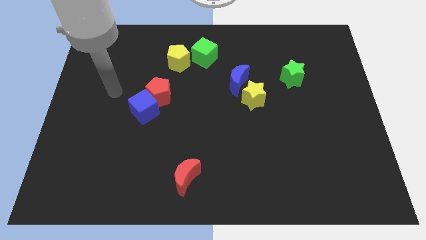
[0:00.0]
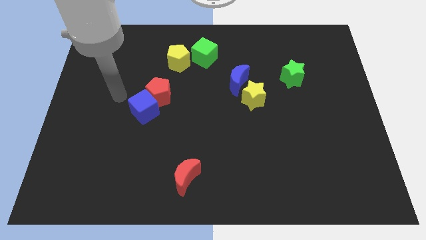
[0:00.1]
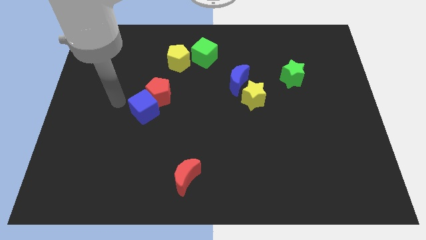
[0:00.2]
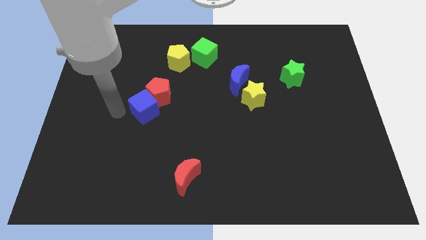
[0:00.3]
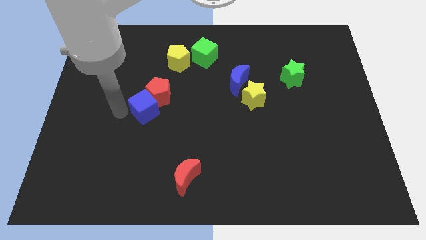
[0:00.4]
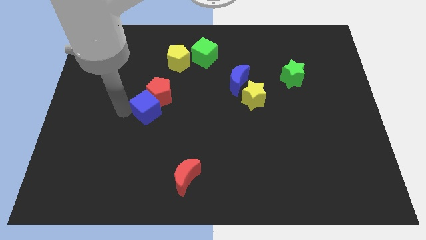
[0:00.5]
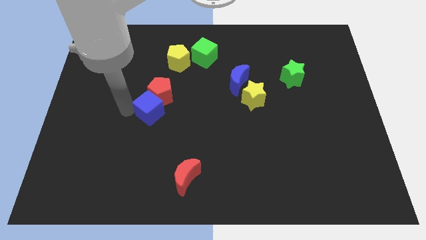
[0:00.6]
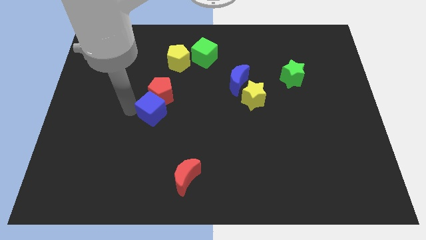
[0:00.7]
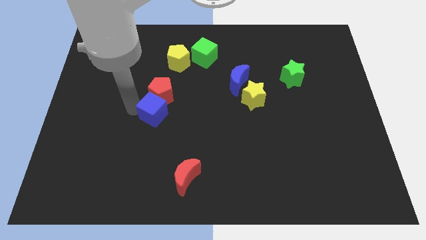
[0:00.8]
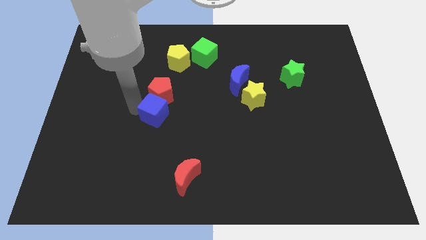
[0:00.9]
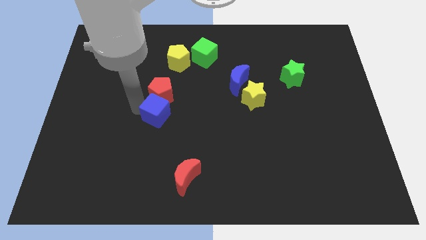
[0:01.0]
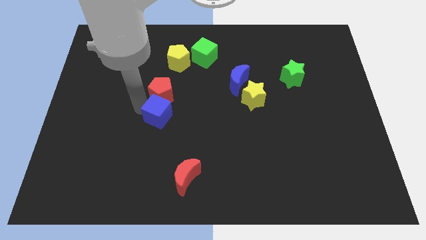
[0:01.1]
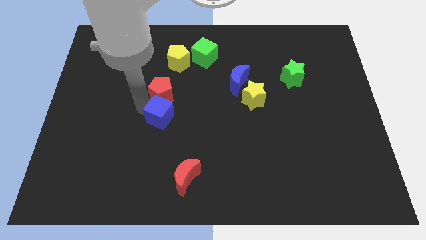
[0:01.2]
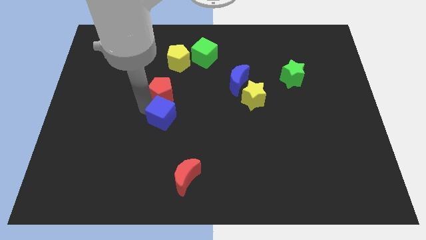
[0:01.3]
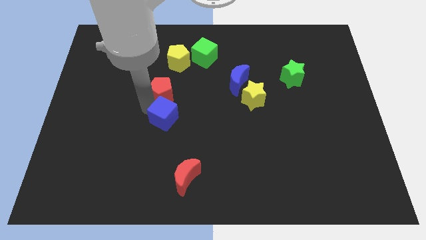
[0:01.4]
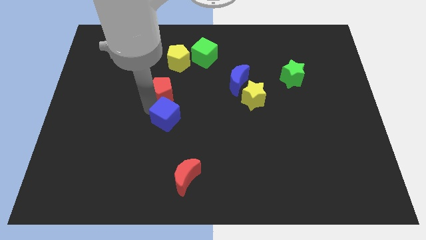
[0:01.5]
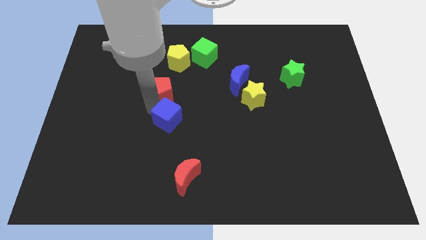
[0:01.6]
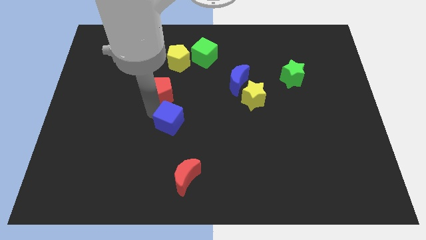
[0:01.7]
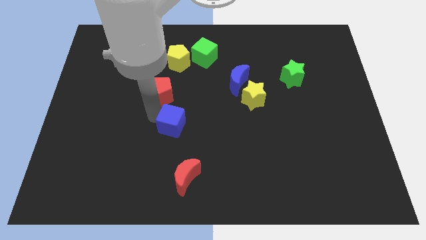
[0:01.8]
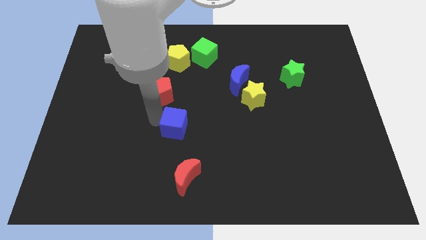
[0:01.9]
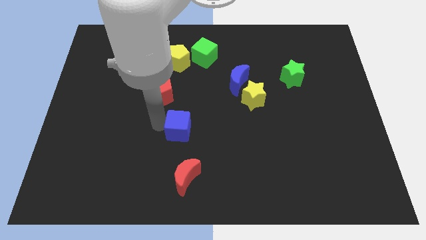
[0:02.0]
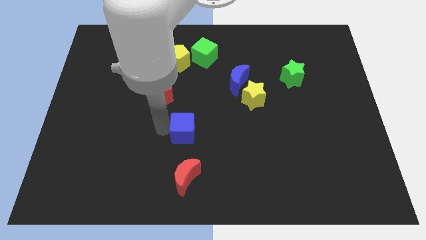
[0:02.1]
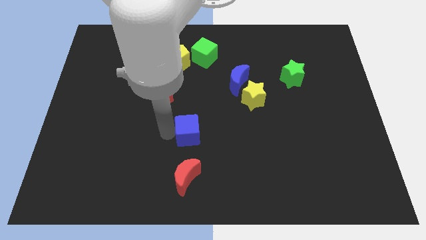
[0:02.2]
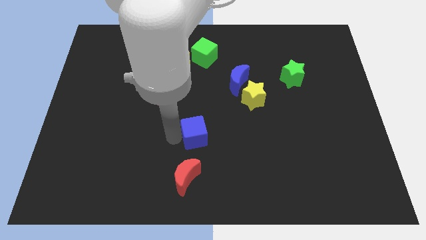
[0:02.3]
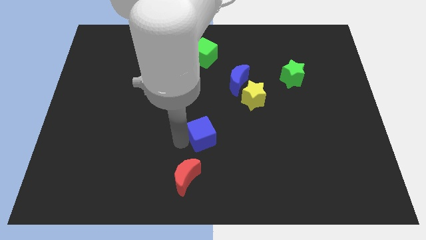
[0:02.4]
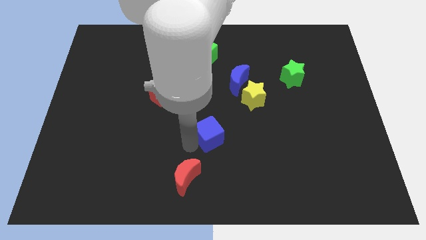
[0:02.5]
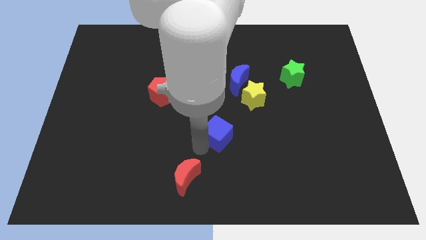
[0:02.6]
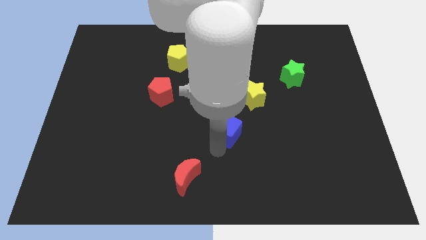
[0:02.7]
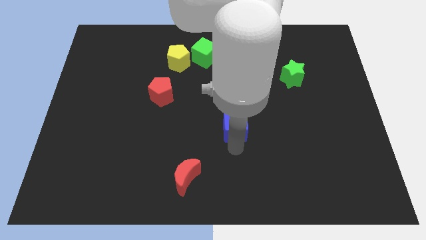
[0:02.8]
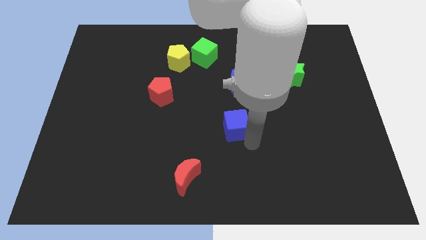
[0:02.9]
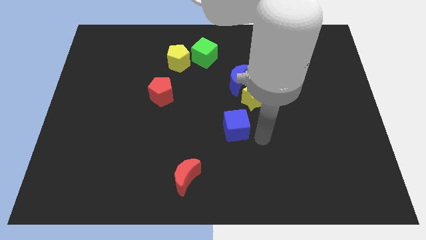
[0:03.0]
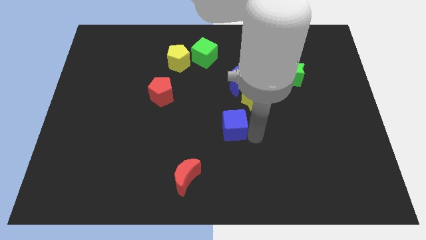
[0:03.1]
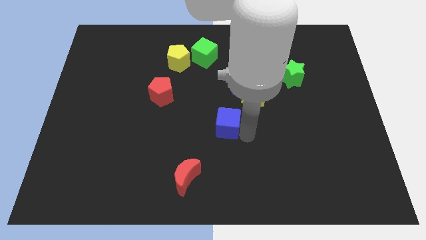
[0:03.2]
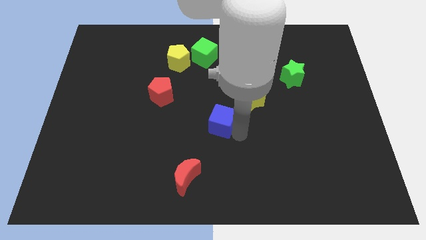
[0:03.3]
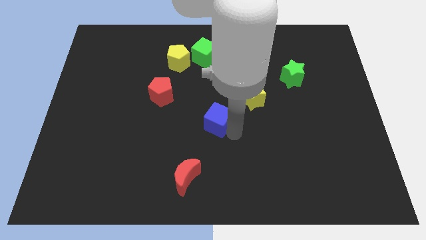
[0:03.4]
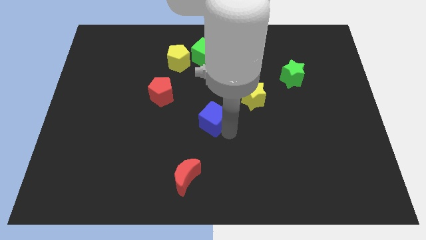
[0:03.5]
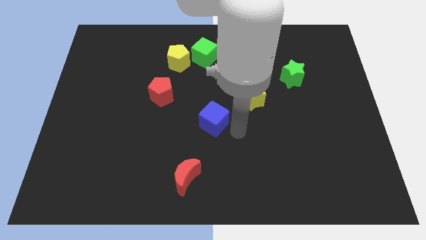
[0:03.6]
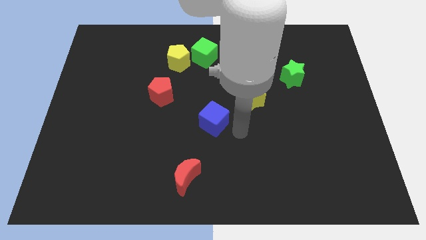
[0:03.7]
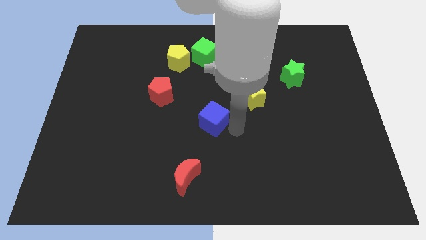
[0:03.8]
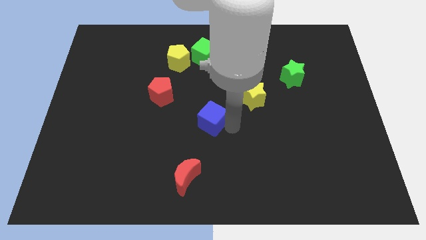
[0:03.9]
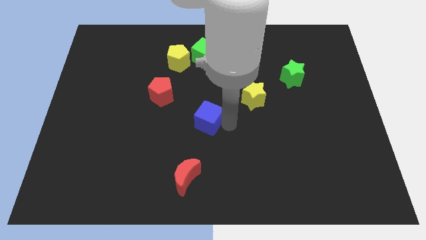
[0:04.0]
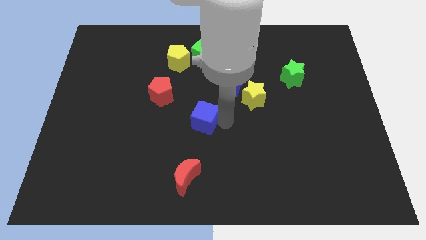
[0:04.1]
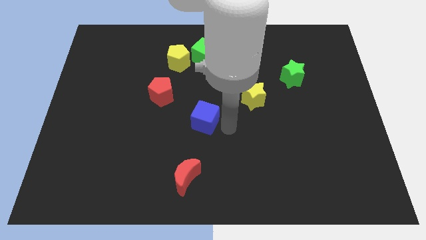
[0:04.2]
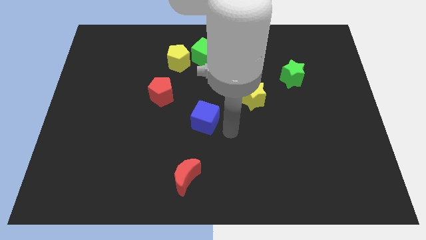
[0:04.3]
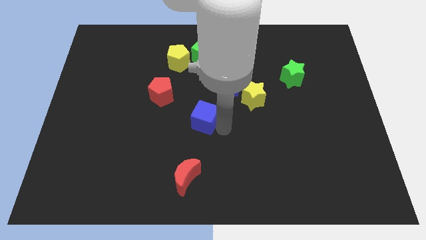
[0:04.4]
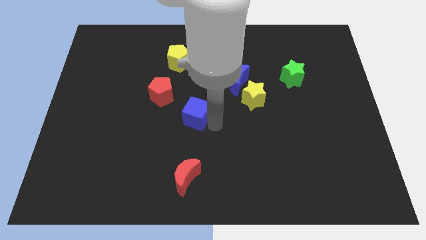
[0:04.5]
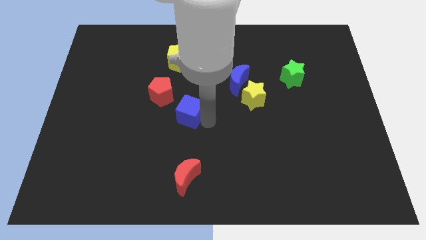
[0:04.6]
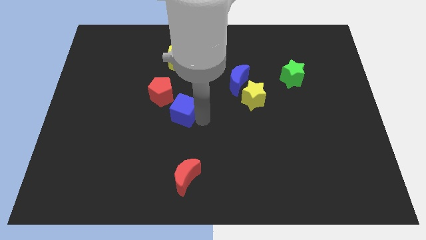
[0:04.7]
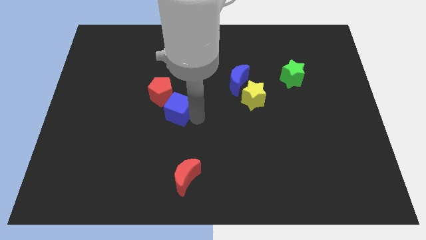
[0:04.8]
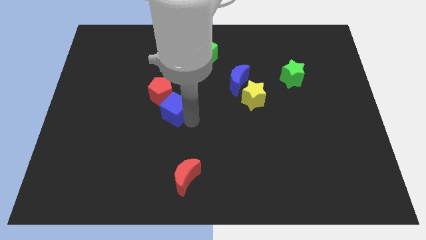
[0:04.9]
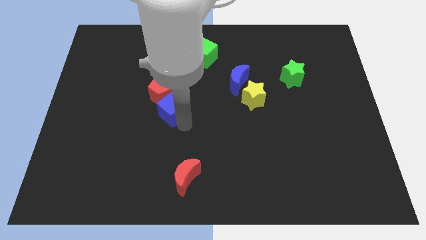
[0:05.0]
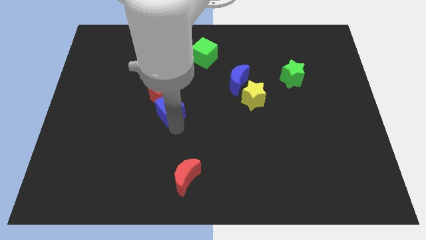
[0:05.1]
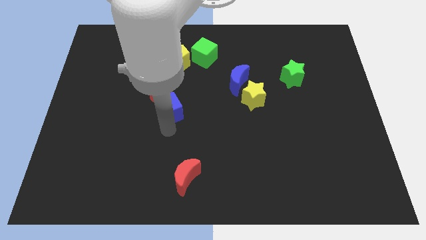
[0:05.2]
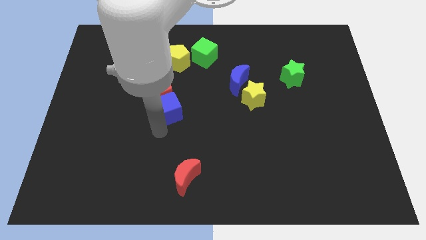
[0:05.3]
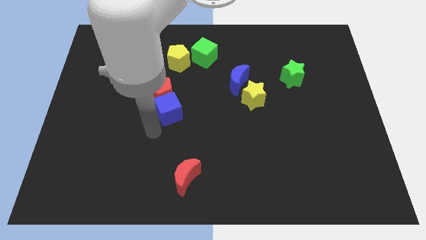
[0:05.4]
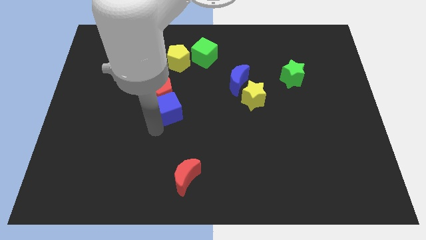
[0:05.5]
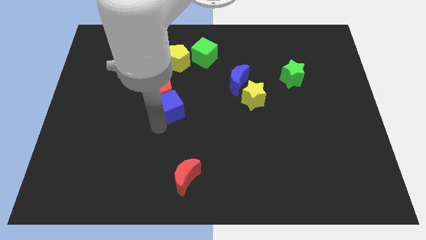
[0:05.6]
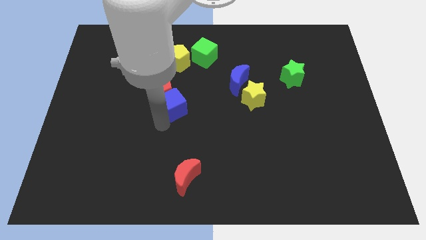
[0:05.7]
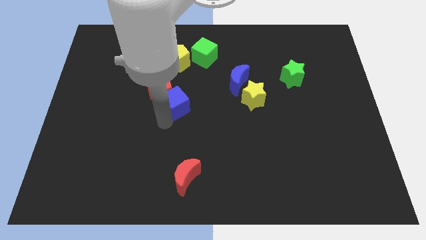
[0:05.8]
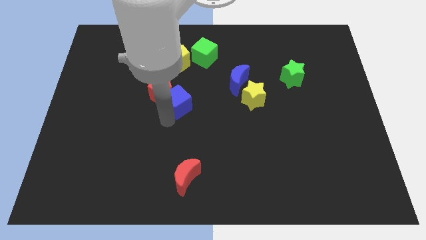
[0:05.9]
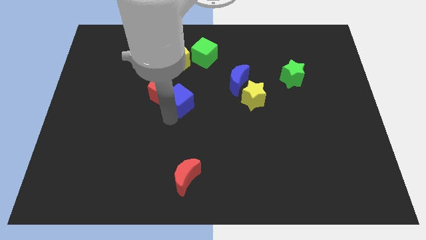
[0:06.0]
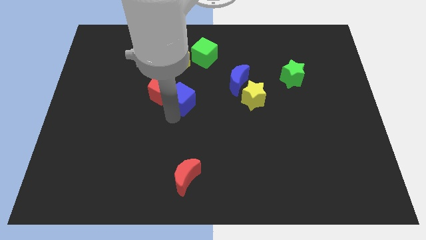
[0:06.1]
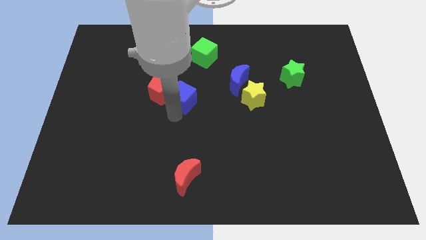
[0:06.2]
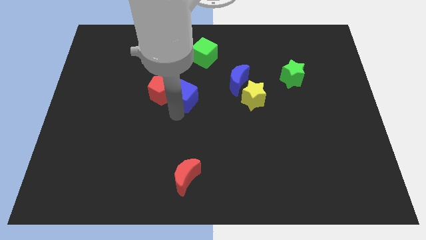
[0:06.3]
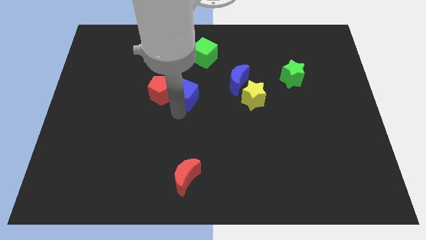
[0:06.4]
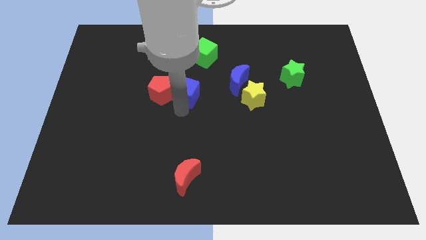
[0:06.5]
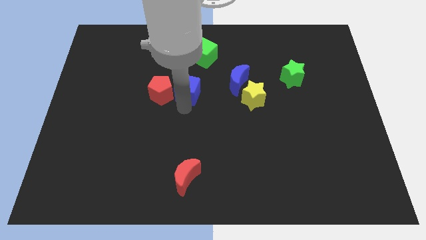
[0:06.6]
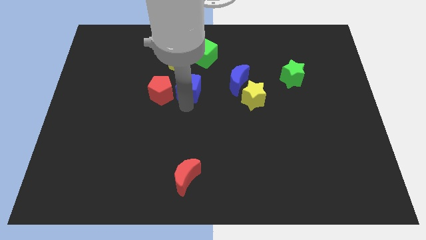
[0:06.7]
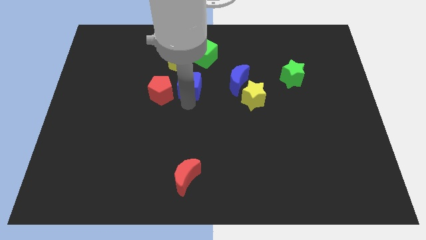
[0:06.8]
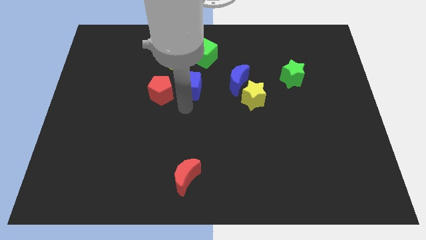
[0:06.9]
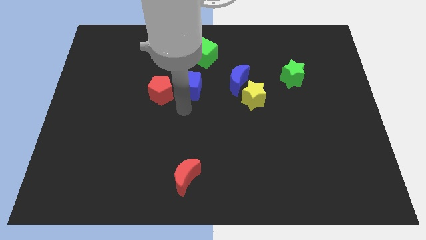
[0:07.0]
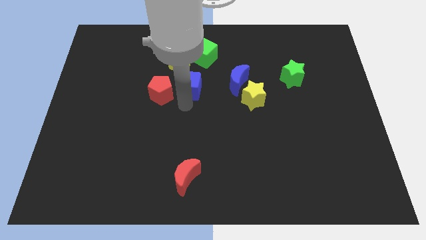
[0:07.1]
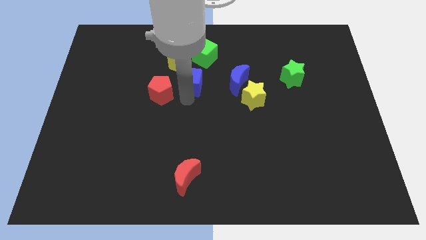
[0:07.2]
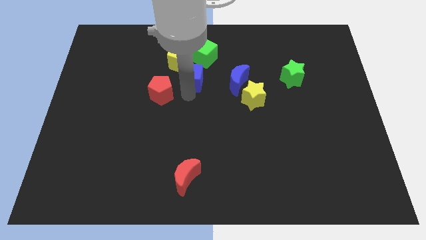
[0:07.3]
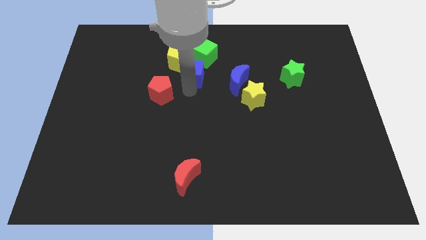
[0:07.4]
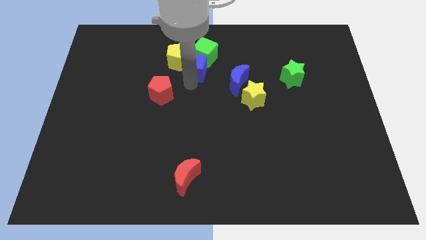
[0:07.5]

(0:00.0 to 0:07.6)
slide the blue cube to the green cube

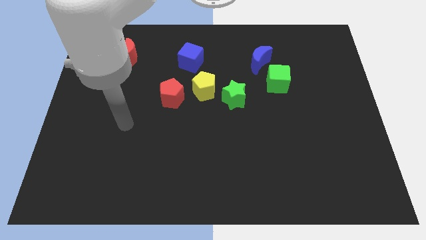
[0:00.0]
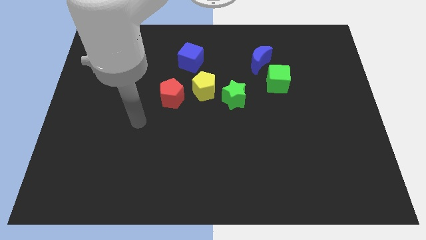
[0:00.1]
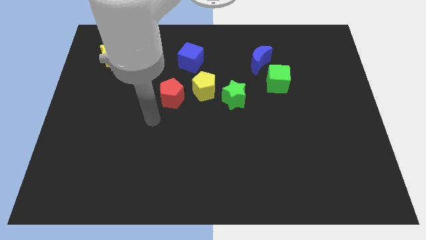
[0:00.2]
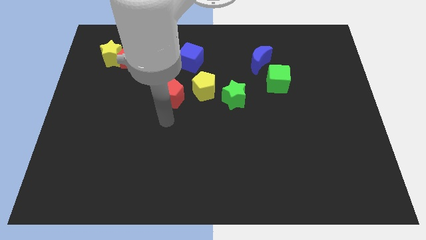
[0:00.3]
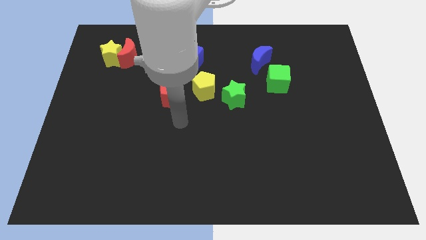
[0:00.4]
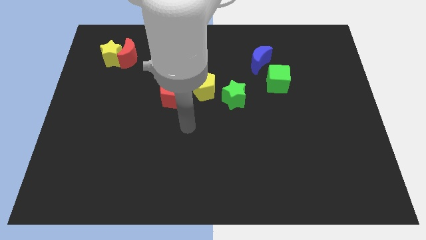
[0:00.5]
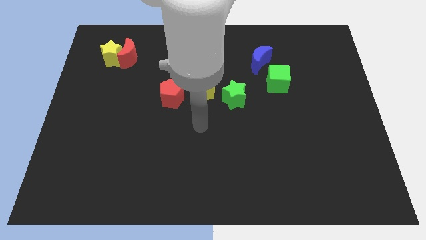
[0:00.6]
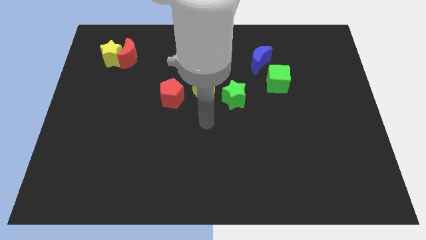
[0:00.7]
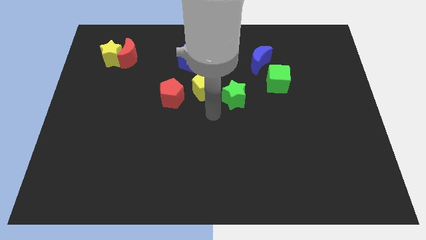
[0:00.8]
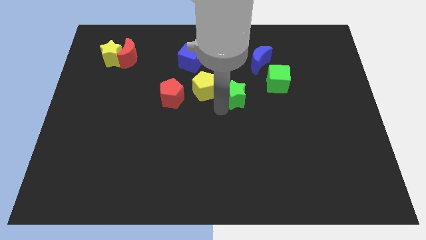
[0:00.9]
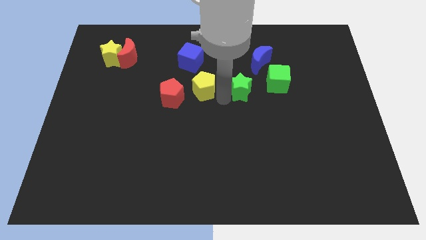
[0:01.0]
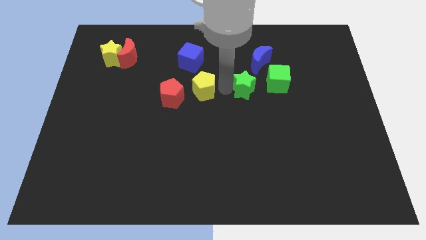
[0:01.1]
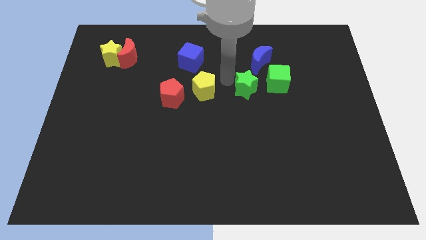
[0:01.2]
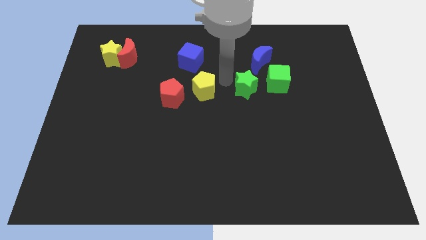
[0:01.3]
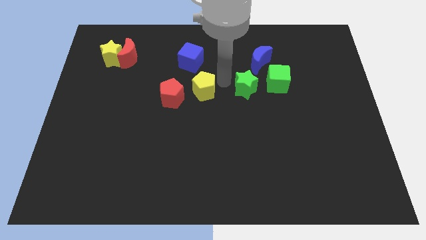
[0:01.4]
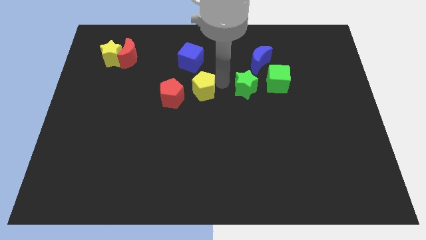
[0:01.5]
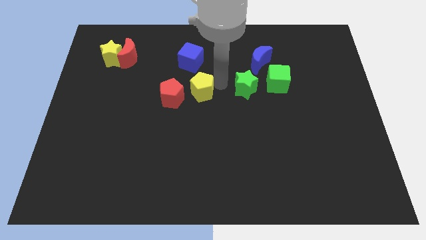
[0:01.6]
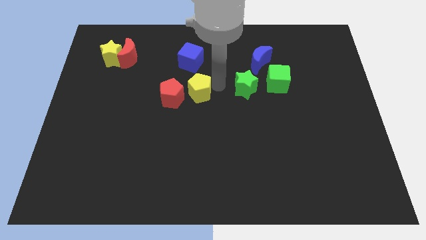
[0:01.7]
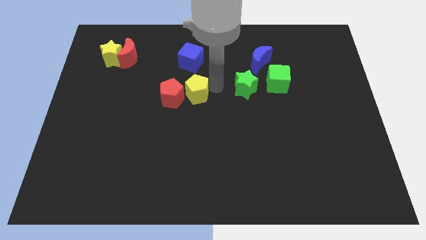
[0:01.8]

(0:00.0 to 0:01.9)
slide the yellow pentagon next to the red pentagon
